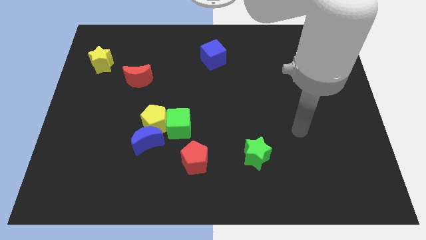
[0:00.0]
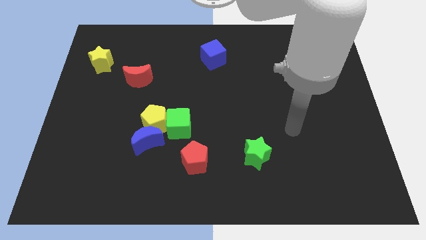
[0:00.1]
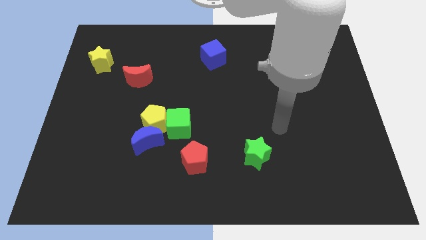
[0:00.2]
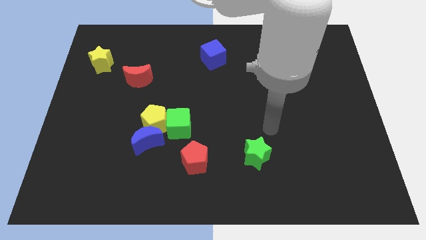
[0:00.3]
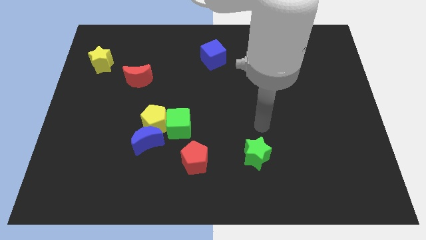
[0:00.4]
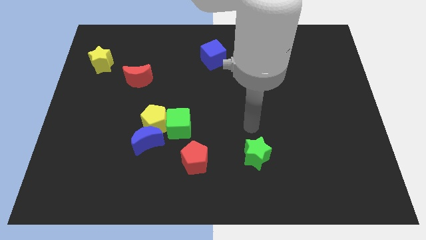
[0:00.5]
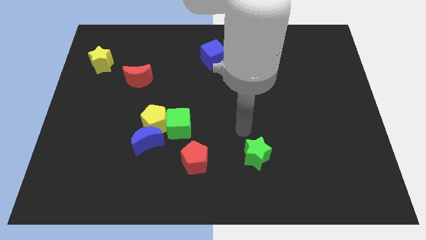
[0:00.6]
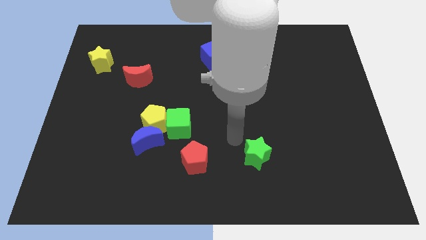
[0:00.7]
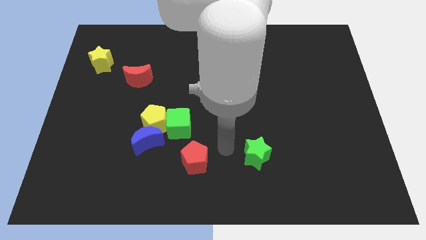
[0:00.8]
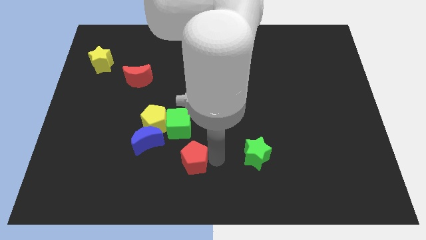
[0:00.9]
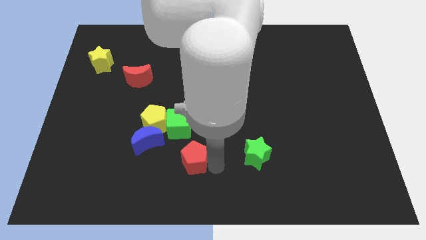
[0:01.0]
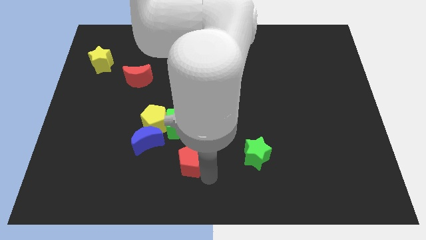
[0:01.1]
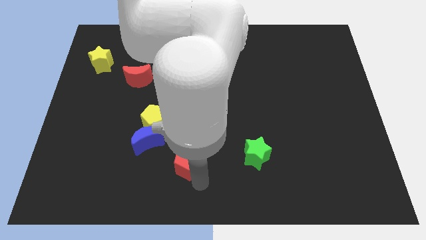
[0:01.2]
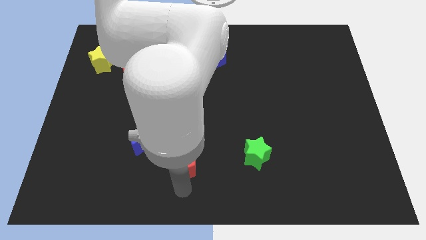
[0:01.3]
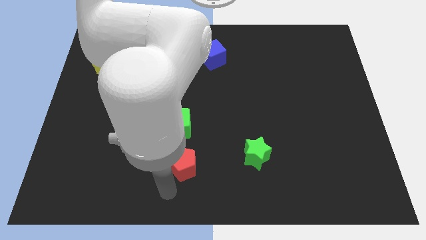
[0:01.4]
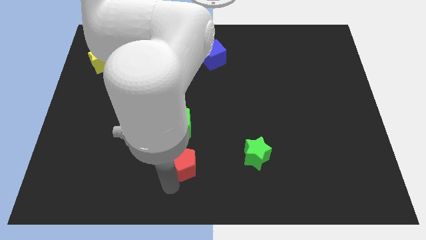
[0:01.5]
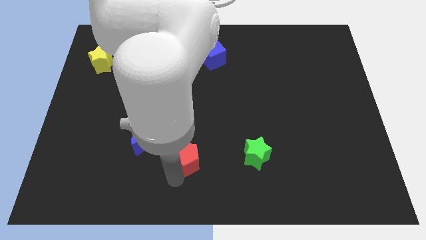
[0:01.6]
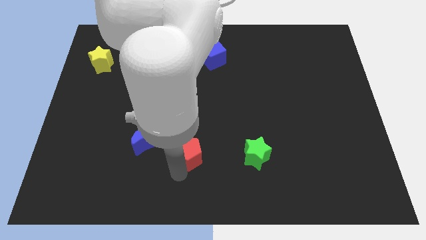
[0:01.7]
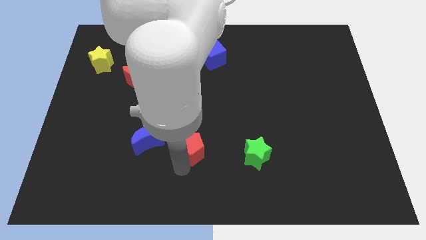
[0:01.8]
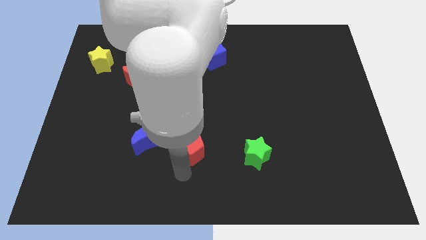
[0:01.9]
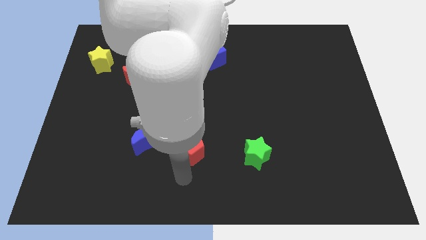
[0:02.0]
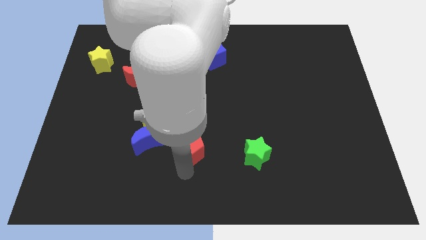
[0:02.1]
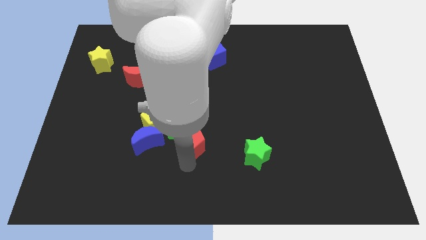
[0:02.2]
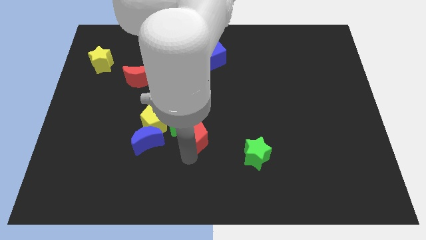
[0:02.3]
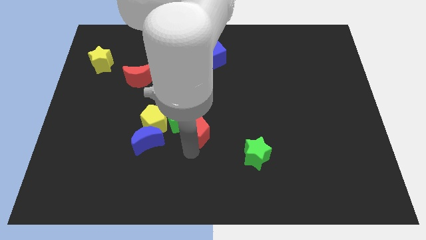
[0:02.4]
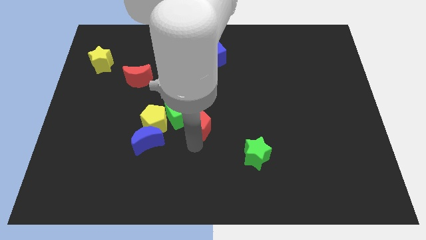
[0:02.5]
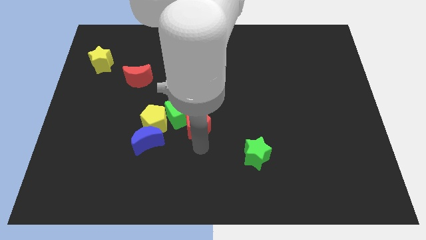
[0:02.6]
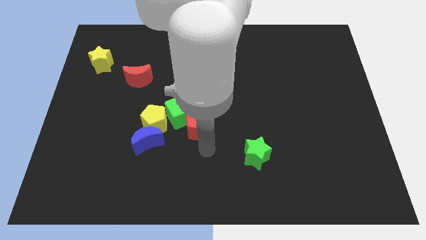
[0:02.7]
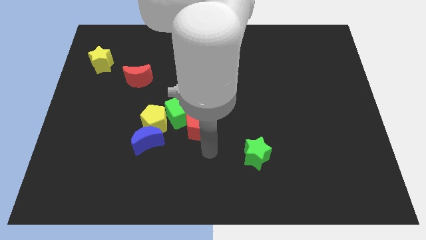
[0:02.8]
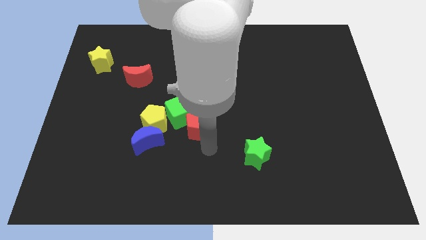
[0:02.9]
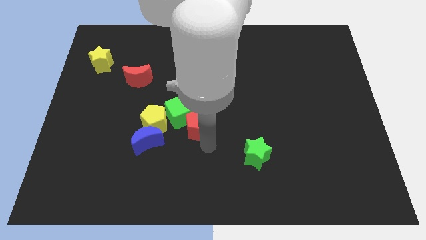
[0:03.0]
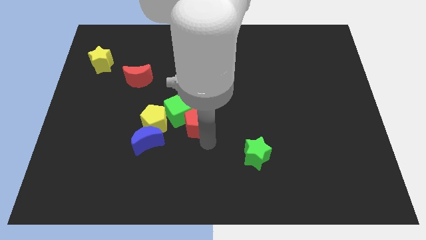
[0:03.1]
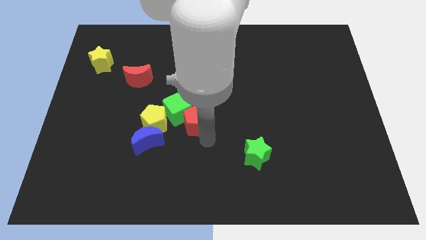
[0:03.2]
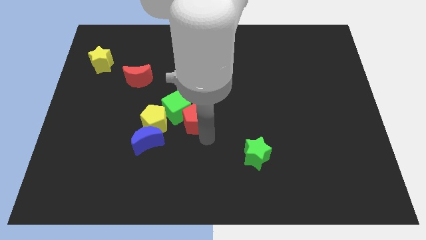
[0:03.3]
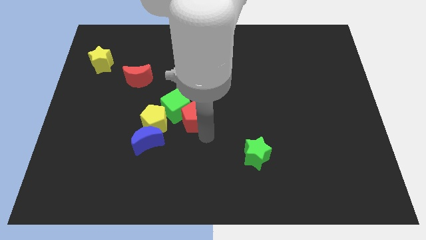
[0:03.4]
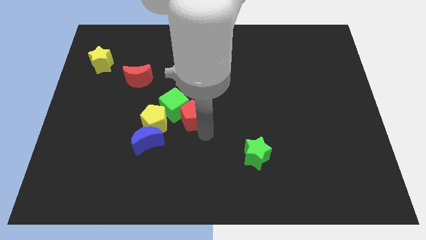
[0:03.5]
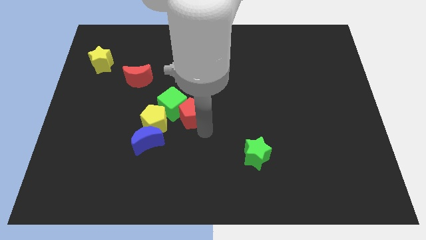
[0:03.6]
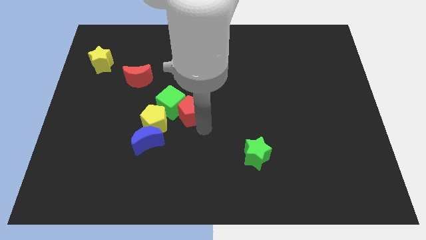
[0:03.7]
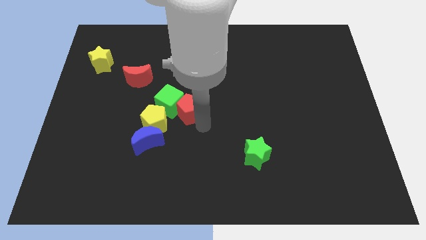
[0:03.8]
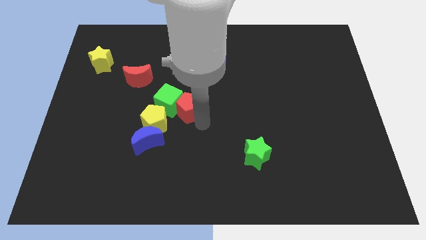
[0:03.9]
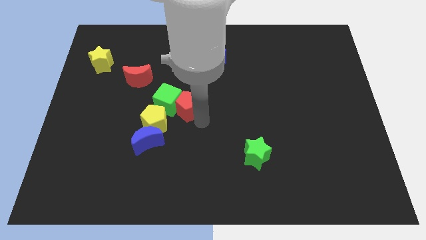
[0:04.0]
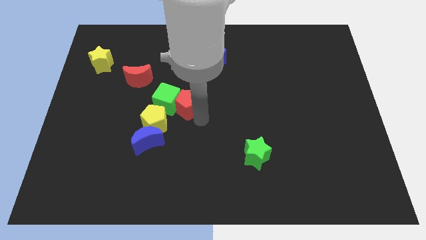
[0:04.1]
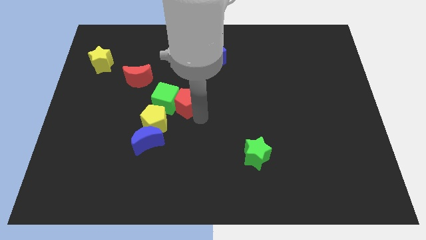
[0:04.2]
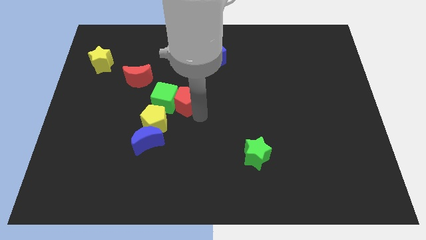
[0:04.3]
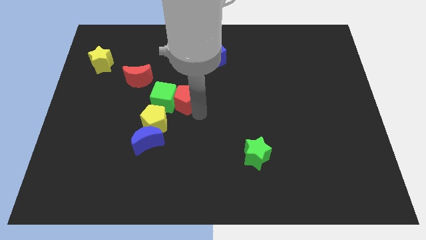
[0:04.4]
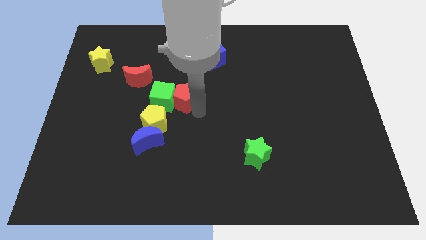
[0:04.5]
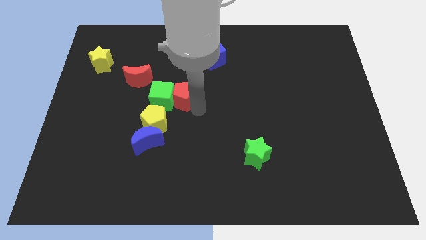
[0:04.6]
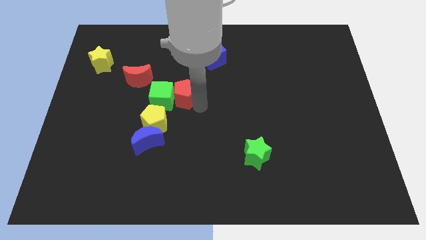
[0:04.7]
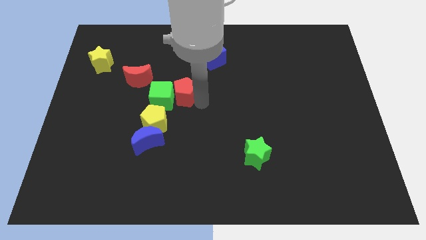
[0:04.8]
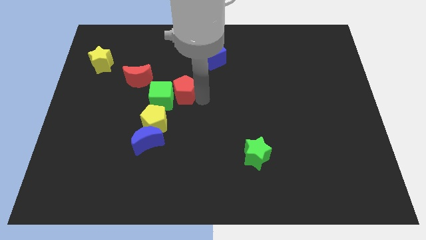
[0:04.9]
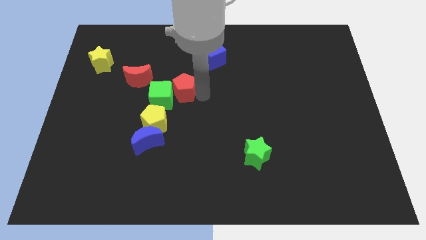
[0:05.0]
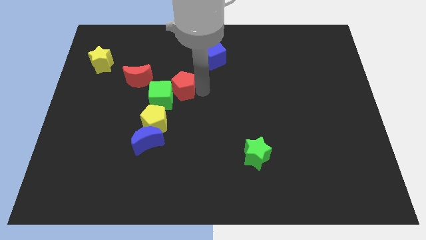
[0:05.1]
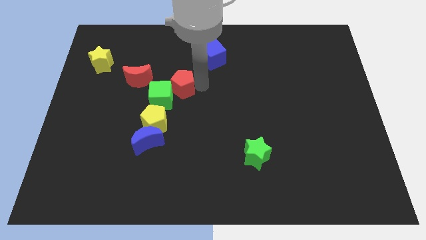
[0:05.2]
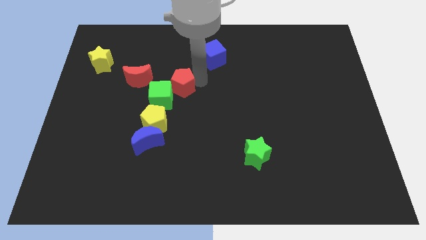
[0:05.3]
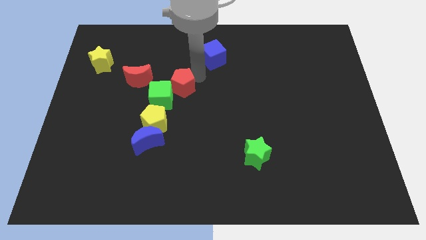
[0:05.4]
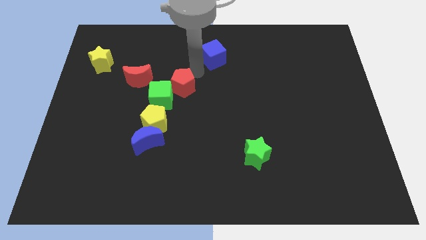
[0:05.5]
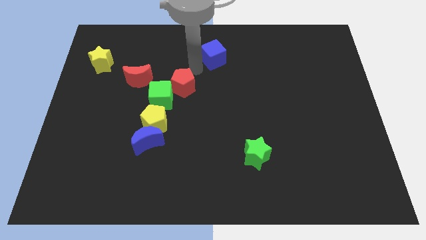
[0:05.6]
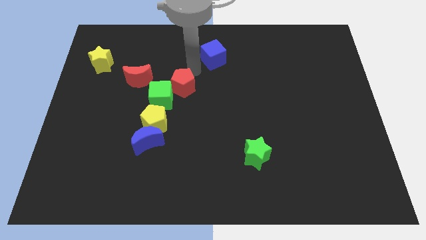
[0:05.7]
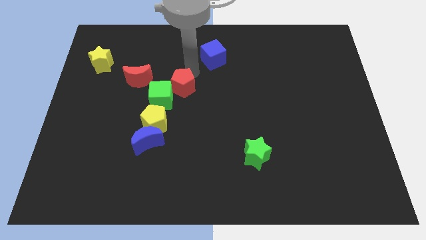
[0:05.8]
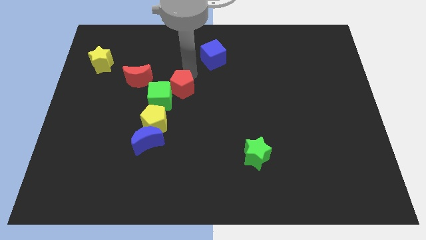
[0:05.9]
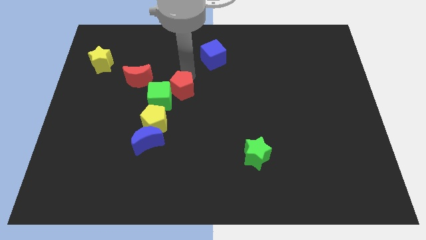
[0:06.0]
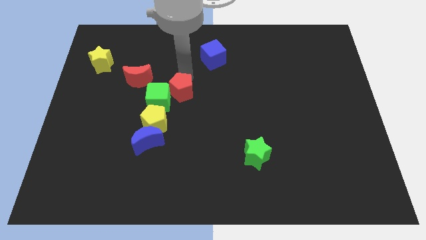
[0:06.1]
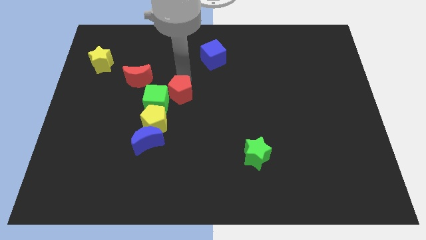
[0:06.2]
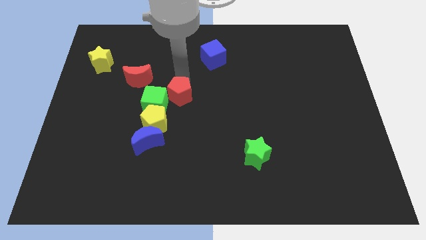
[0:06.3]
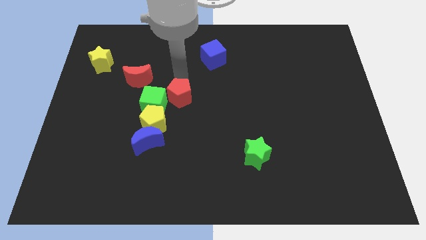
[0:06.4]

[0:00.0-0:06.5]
slide the red pentagon to the bottom right side of the red moon
